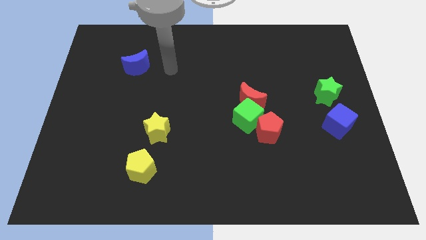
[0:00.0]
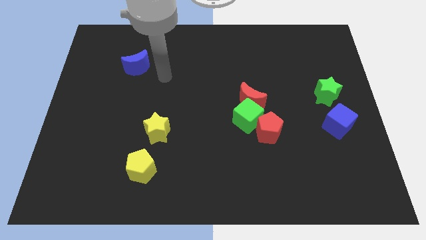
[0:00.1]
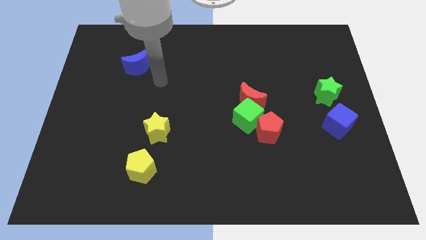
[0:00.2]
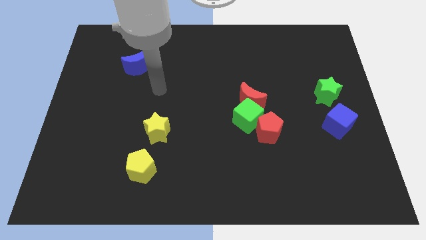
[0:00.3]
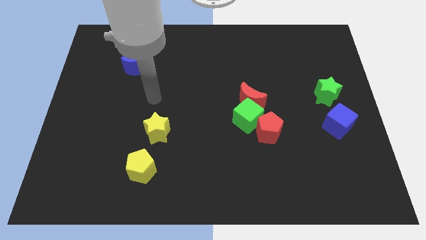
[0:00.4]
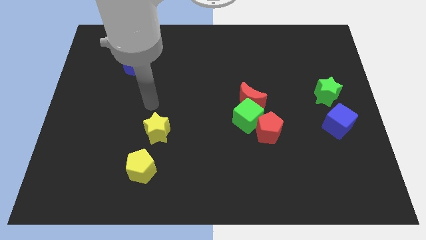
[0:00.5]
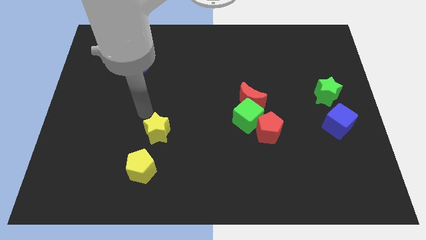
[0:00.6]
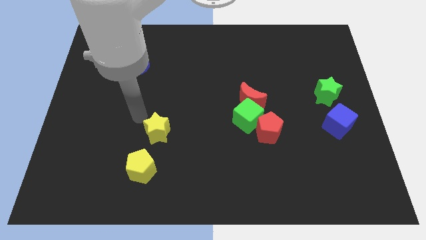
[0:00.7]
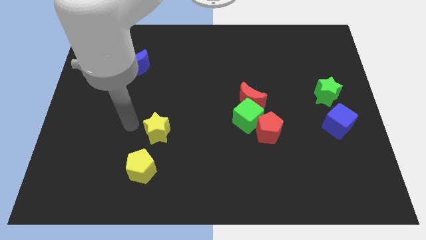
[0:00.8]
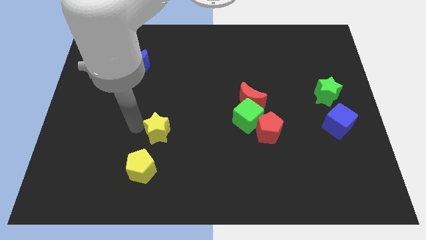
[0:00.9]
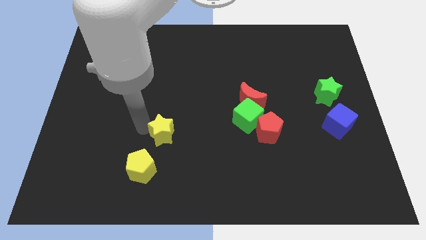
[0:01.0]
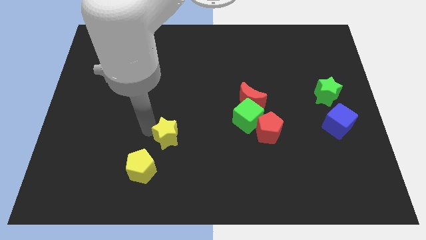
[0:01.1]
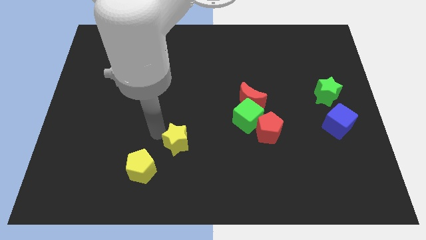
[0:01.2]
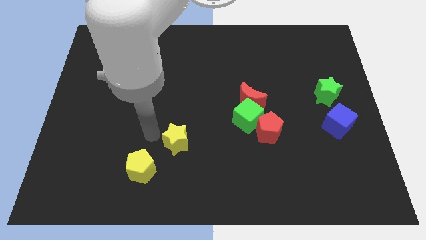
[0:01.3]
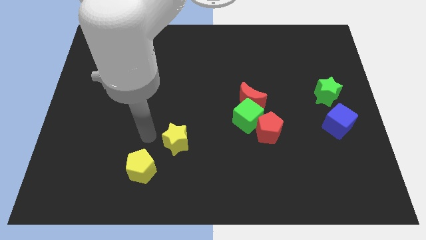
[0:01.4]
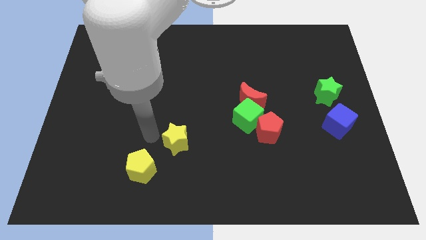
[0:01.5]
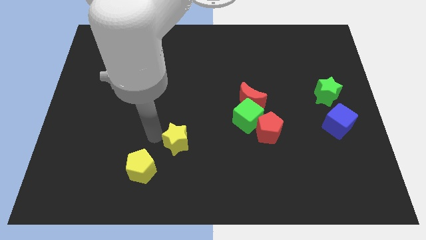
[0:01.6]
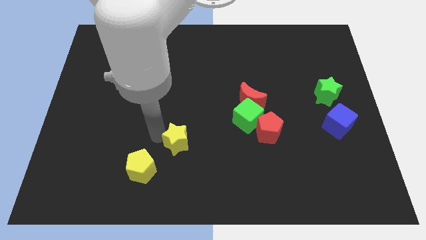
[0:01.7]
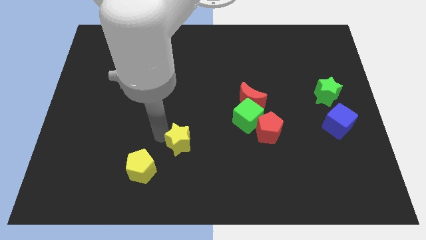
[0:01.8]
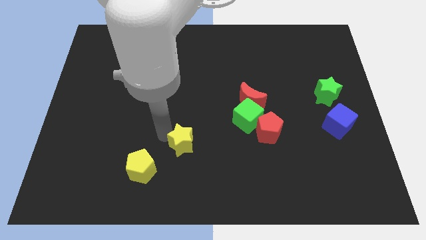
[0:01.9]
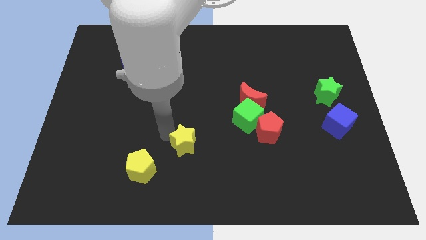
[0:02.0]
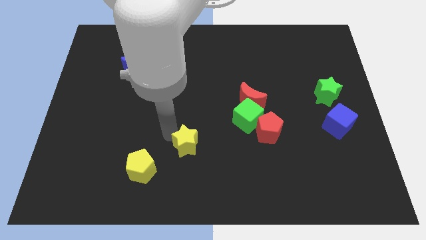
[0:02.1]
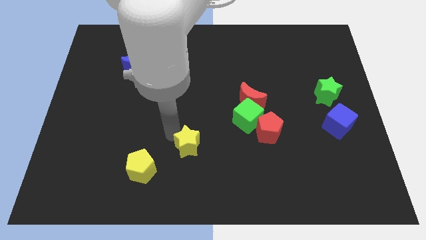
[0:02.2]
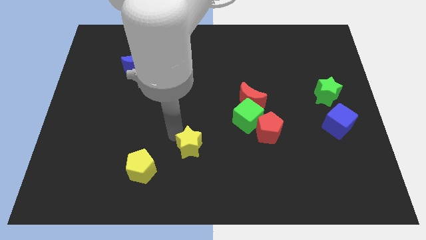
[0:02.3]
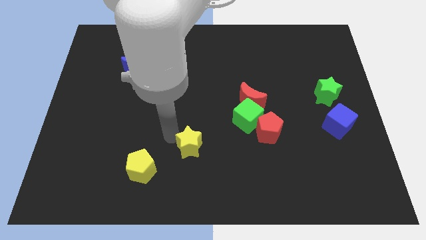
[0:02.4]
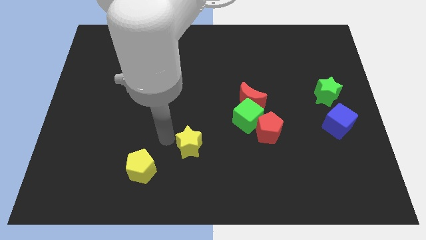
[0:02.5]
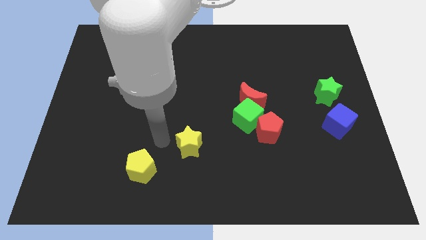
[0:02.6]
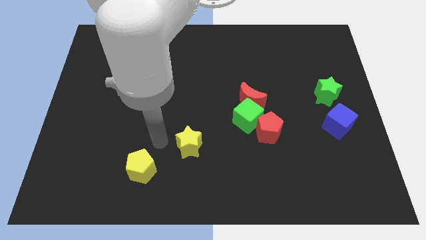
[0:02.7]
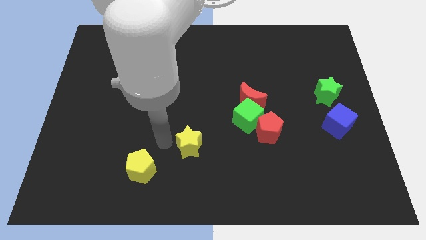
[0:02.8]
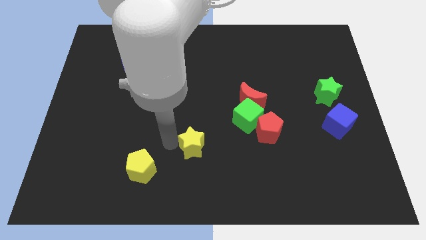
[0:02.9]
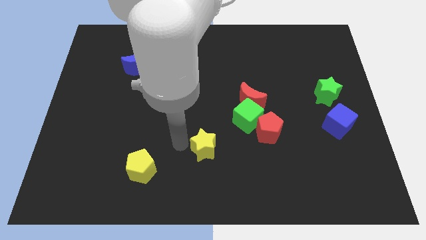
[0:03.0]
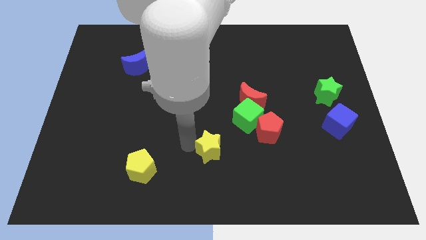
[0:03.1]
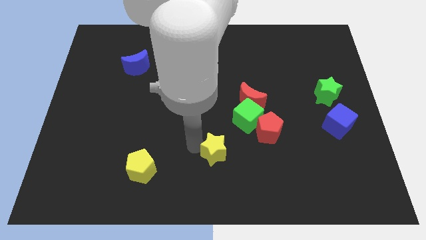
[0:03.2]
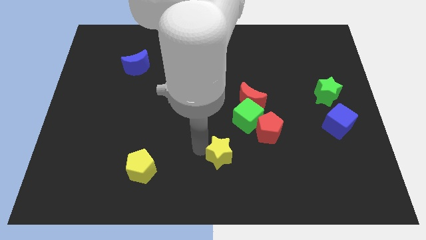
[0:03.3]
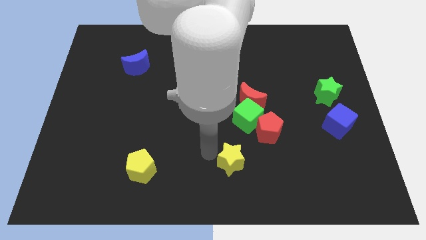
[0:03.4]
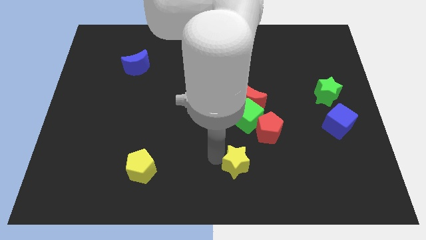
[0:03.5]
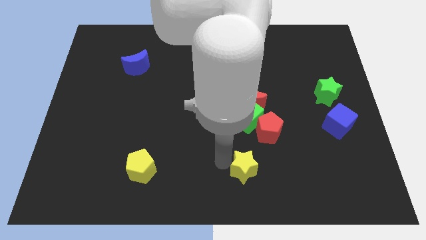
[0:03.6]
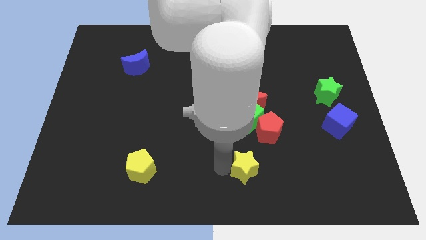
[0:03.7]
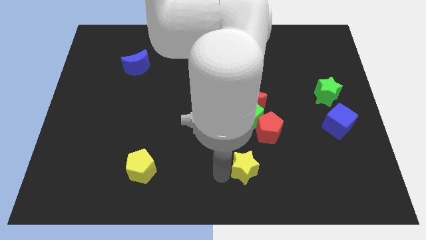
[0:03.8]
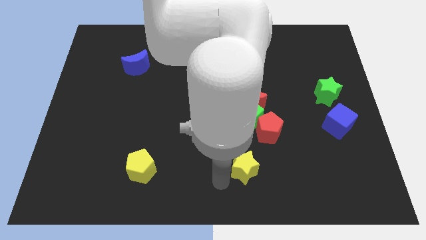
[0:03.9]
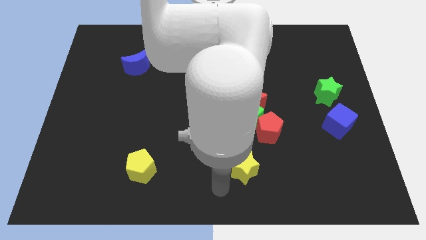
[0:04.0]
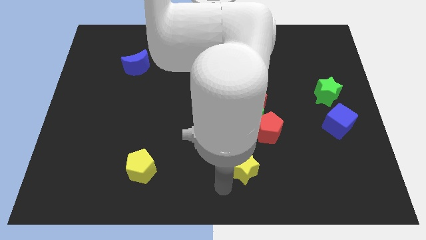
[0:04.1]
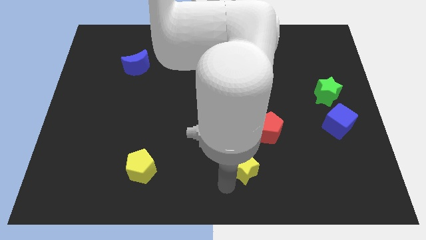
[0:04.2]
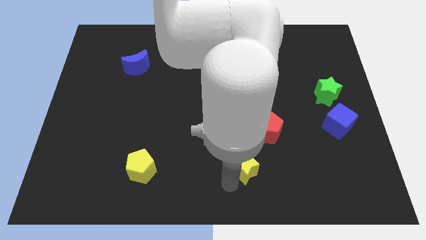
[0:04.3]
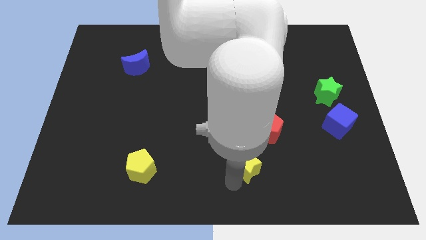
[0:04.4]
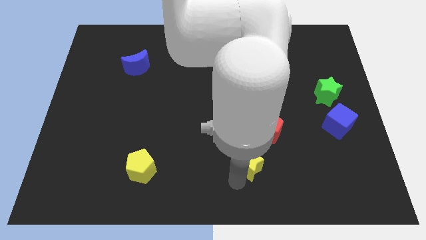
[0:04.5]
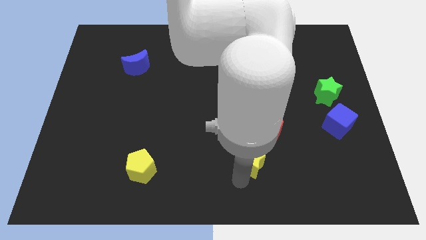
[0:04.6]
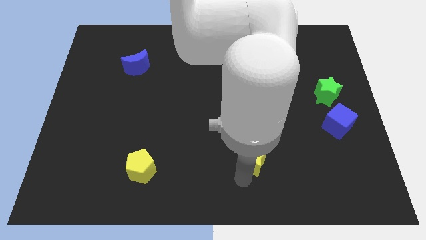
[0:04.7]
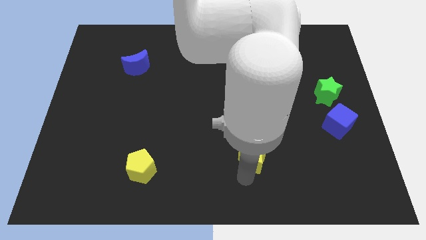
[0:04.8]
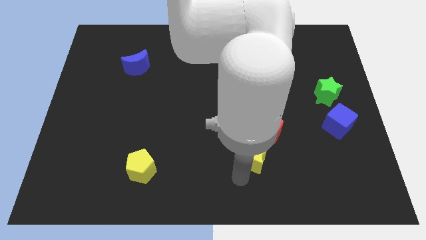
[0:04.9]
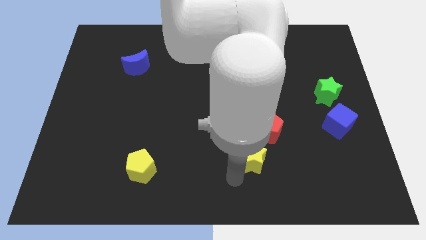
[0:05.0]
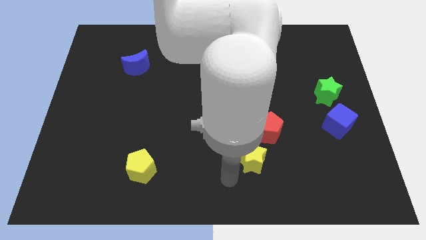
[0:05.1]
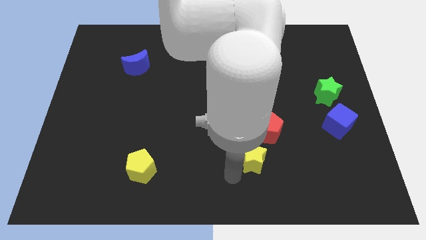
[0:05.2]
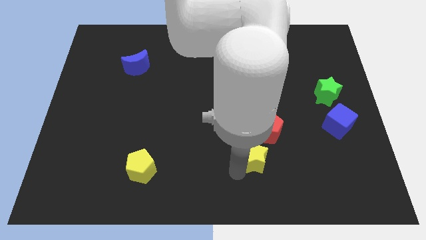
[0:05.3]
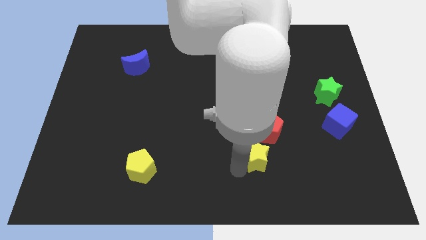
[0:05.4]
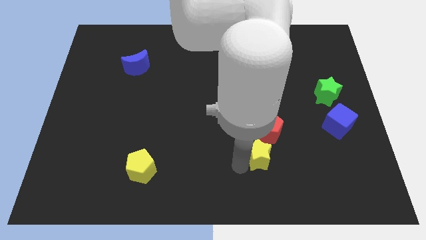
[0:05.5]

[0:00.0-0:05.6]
push the yellow star right

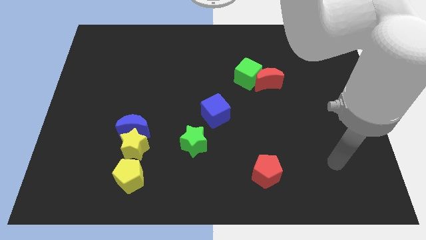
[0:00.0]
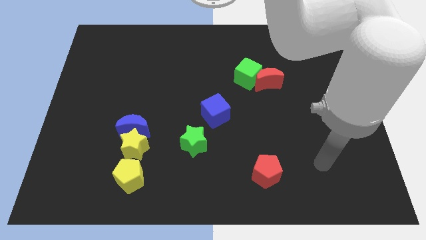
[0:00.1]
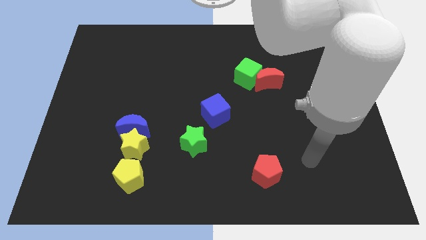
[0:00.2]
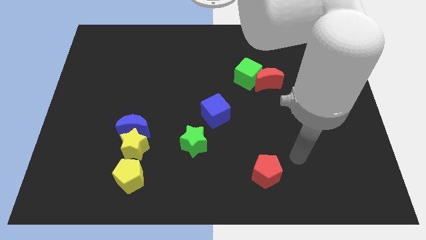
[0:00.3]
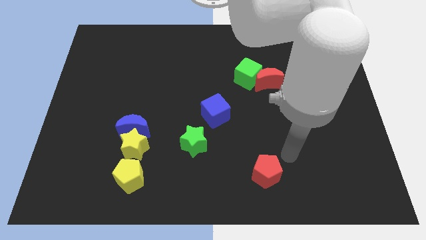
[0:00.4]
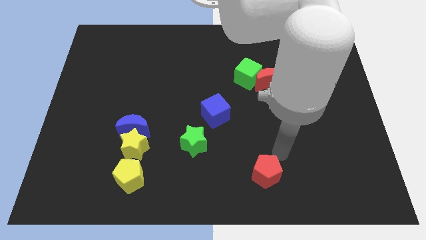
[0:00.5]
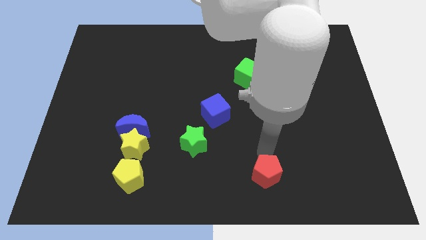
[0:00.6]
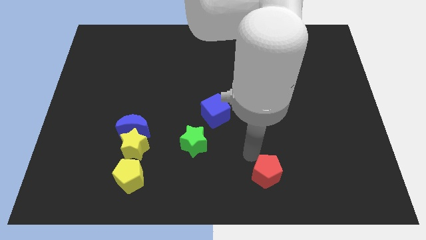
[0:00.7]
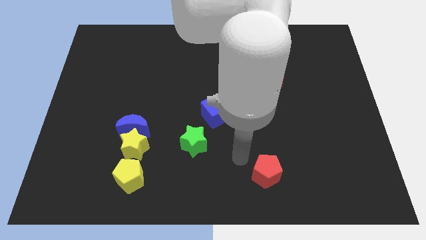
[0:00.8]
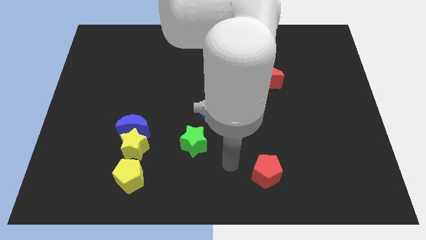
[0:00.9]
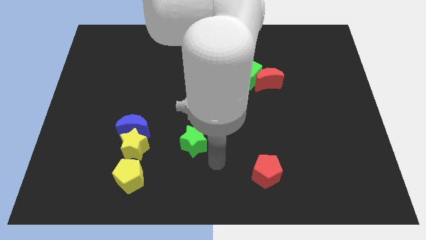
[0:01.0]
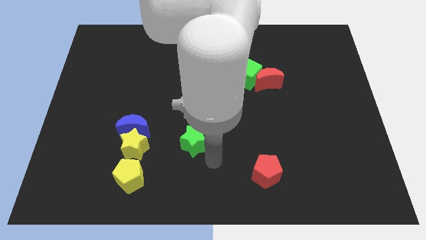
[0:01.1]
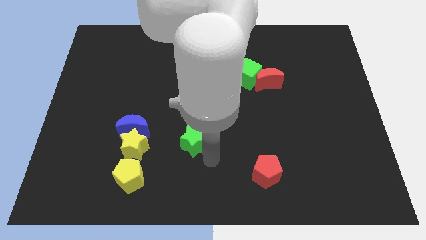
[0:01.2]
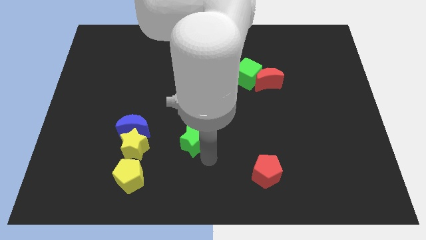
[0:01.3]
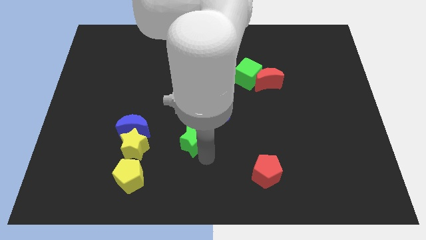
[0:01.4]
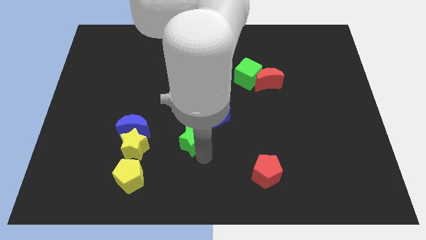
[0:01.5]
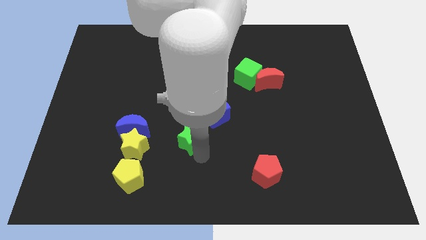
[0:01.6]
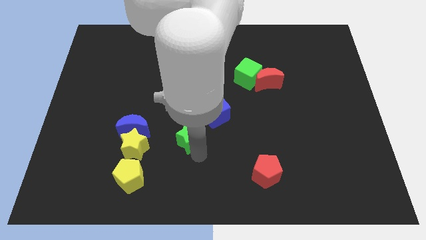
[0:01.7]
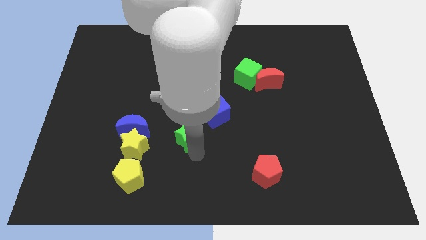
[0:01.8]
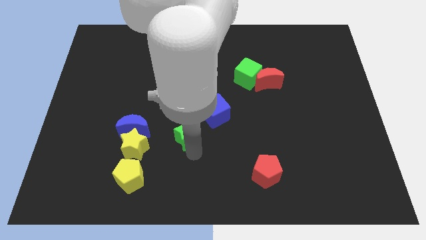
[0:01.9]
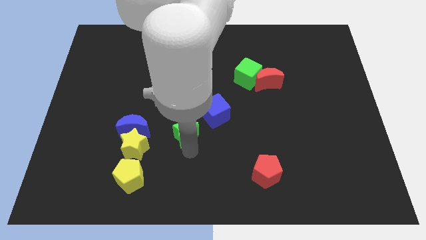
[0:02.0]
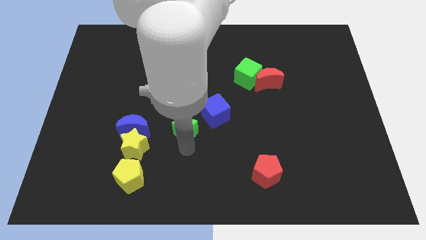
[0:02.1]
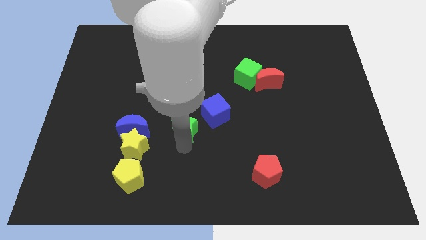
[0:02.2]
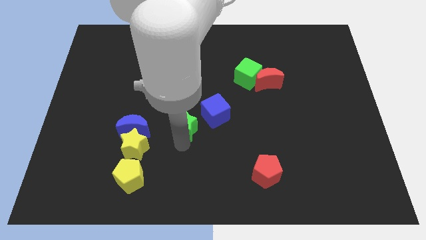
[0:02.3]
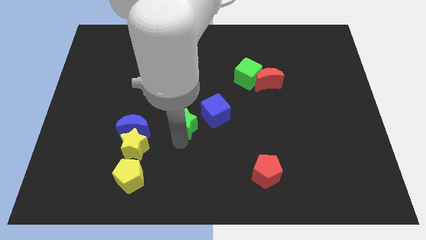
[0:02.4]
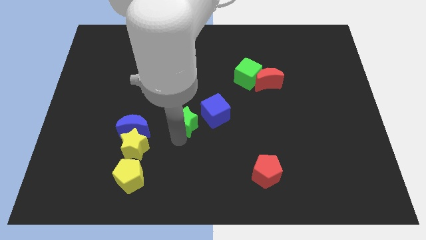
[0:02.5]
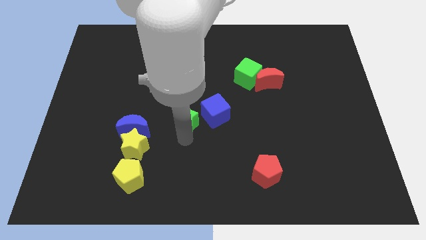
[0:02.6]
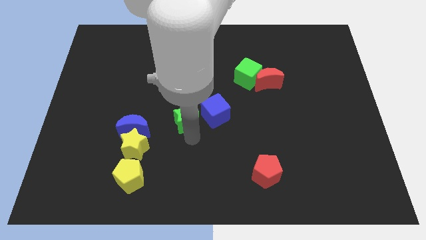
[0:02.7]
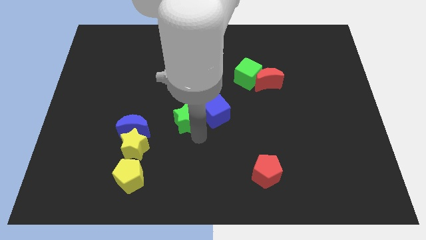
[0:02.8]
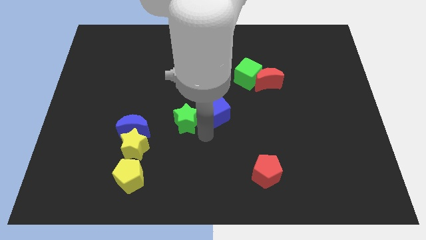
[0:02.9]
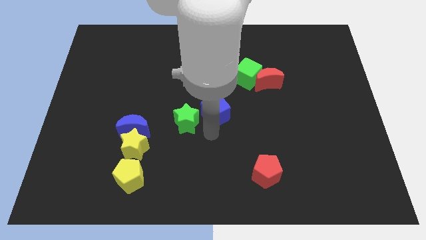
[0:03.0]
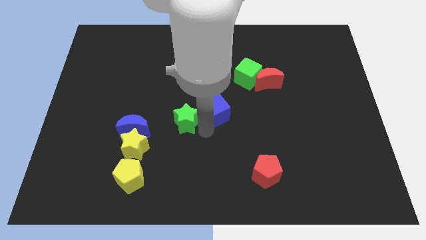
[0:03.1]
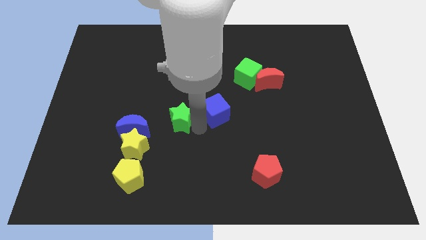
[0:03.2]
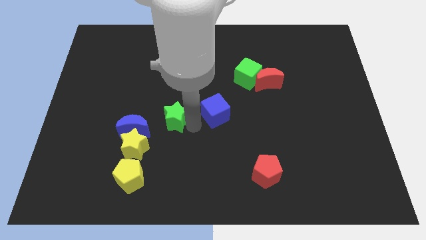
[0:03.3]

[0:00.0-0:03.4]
move the green star a little bit diagonally up and to the left
